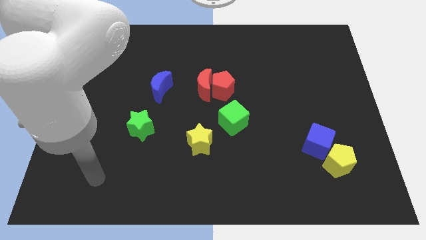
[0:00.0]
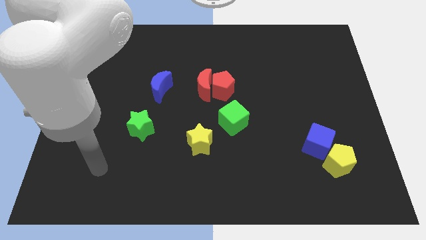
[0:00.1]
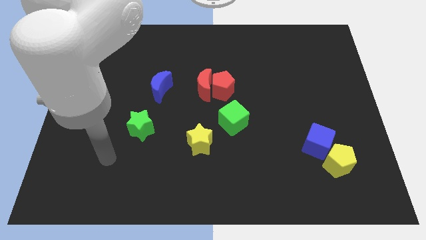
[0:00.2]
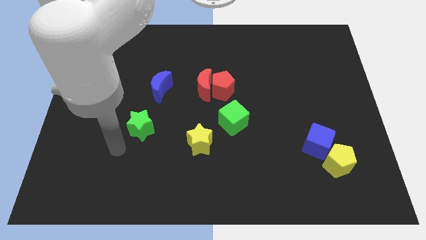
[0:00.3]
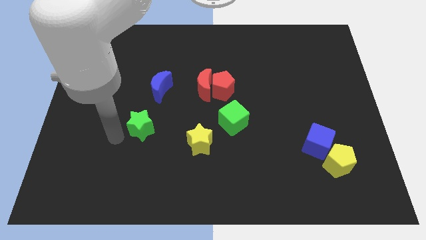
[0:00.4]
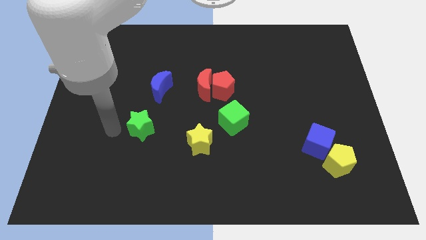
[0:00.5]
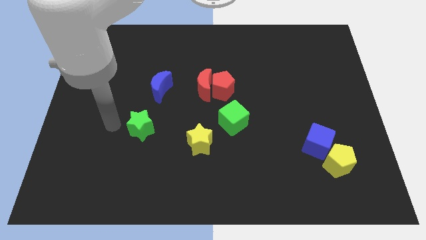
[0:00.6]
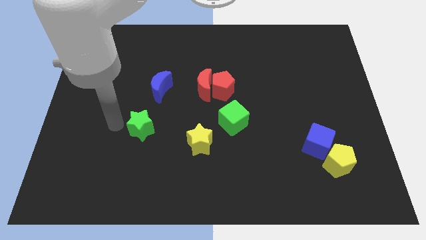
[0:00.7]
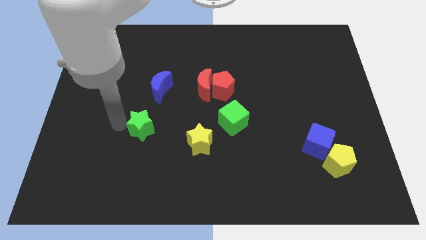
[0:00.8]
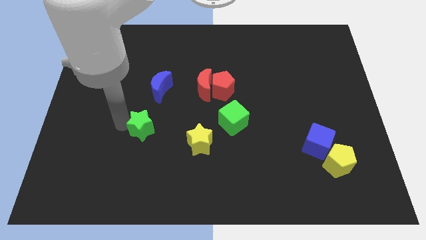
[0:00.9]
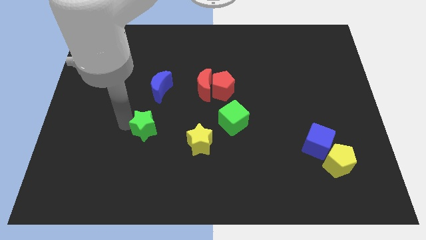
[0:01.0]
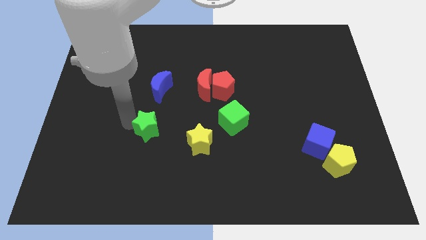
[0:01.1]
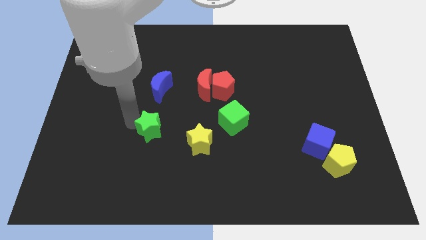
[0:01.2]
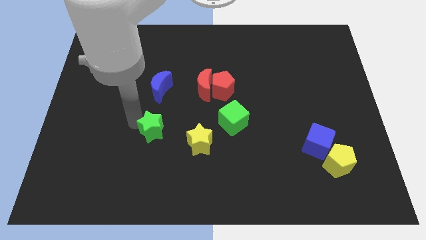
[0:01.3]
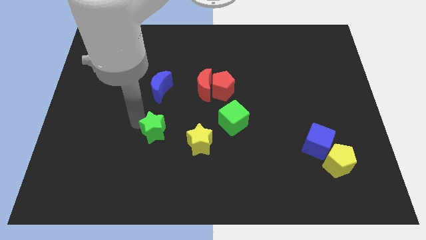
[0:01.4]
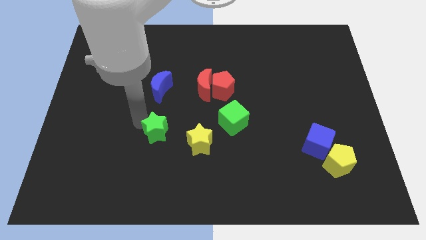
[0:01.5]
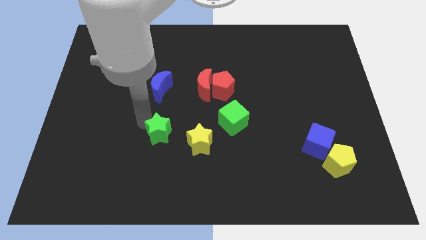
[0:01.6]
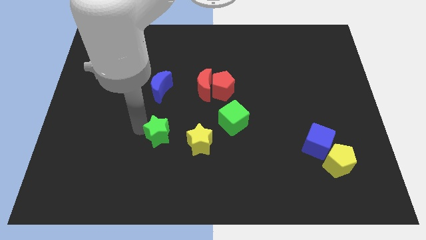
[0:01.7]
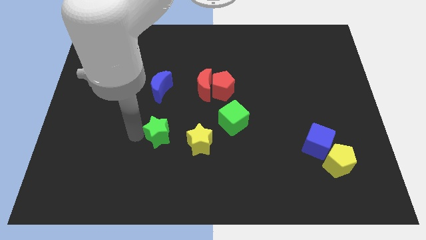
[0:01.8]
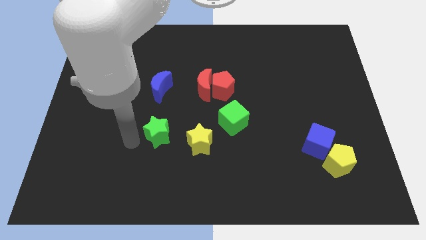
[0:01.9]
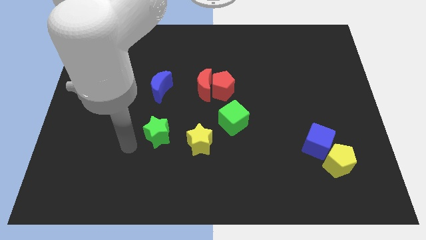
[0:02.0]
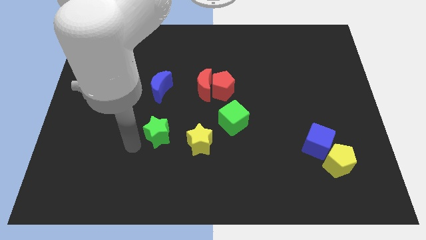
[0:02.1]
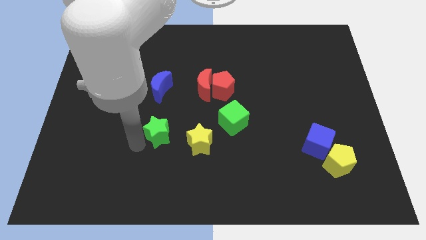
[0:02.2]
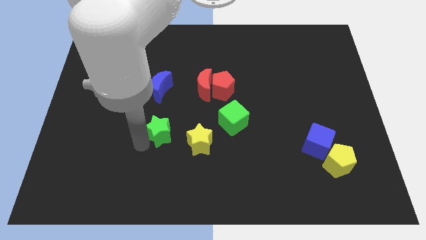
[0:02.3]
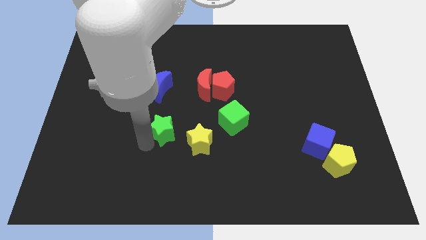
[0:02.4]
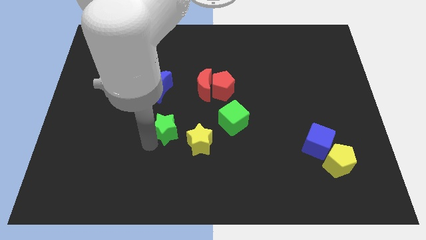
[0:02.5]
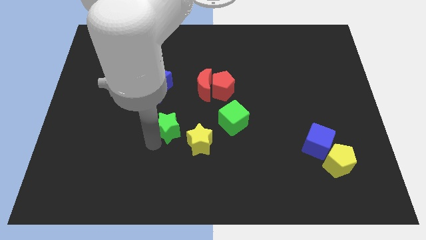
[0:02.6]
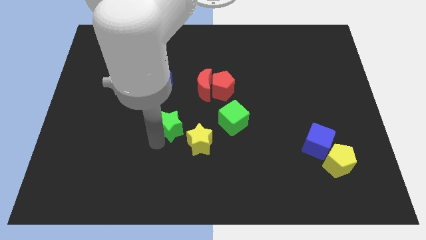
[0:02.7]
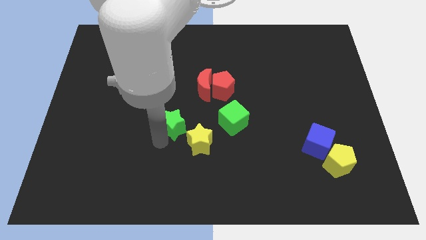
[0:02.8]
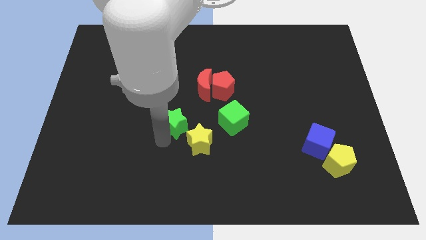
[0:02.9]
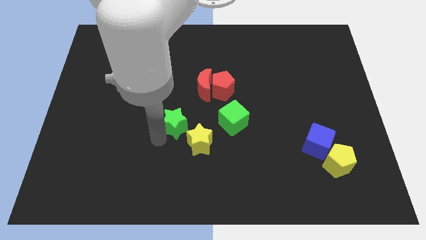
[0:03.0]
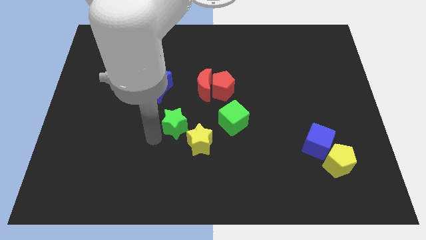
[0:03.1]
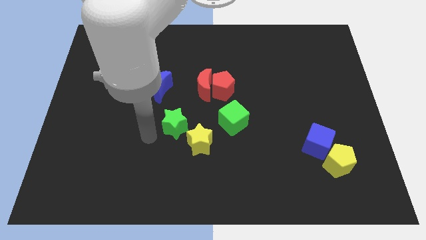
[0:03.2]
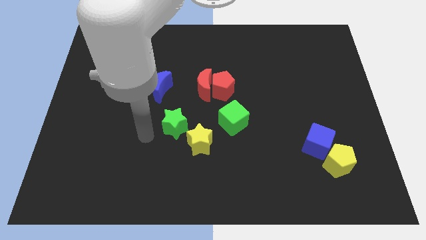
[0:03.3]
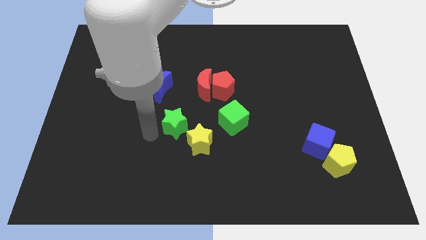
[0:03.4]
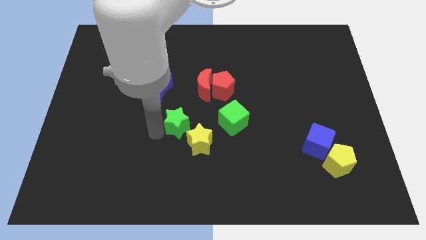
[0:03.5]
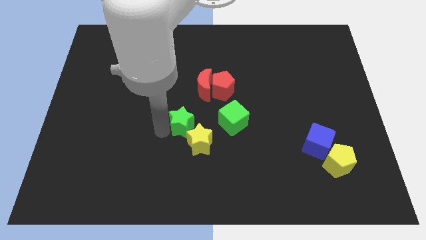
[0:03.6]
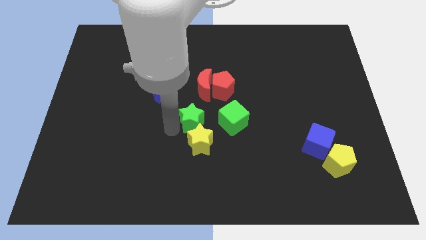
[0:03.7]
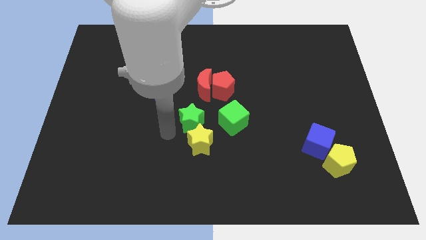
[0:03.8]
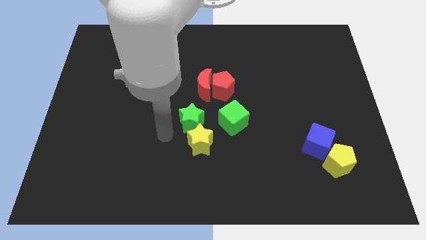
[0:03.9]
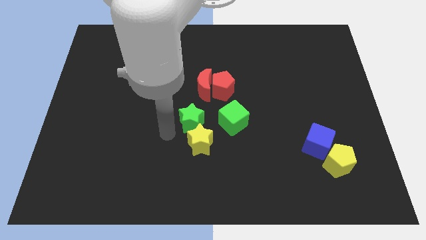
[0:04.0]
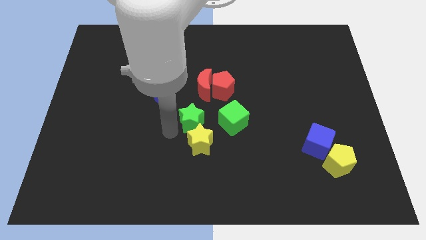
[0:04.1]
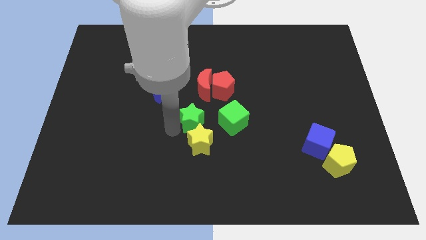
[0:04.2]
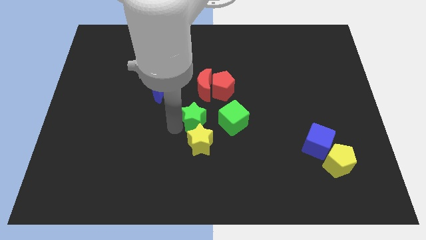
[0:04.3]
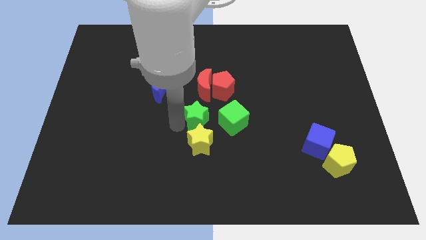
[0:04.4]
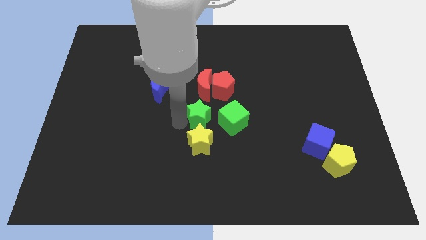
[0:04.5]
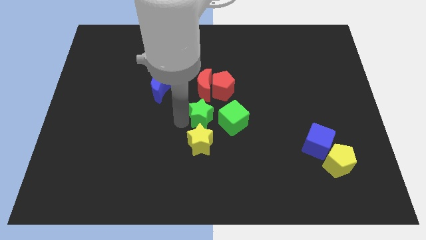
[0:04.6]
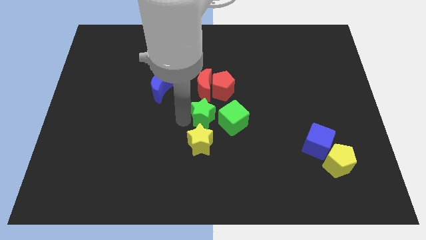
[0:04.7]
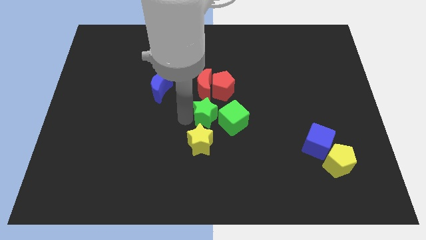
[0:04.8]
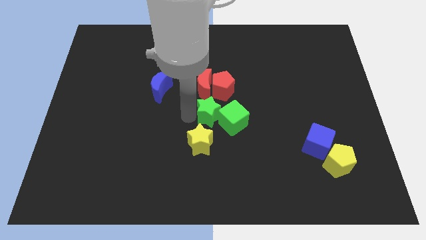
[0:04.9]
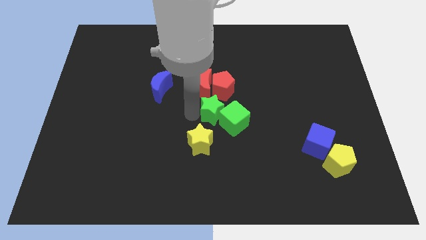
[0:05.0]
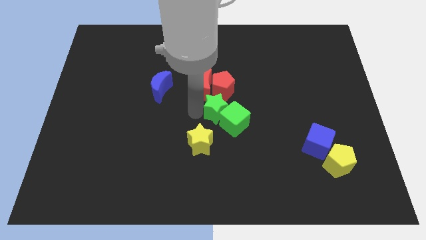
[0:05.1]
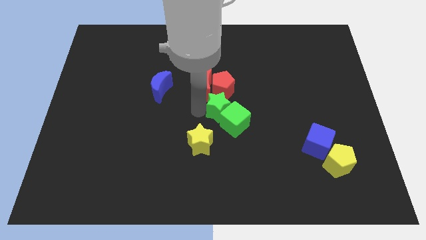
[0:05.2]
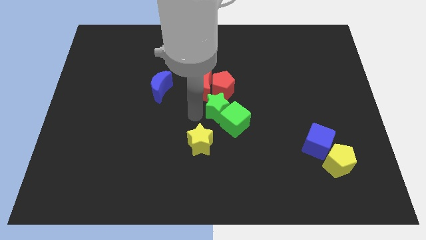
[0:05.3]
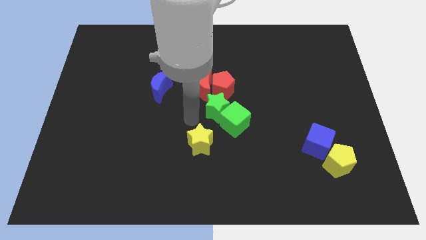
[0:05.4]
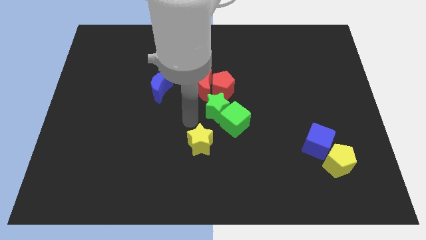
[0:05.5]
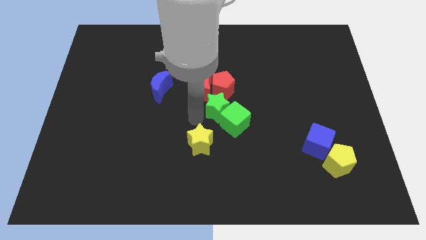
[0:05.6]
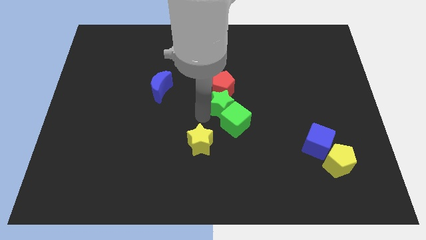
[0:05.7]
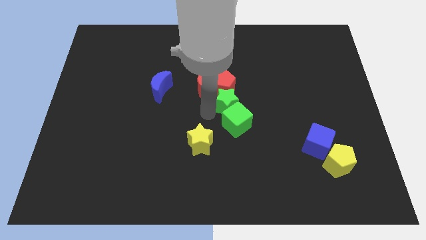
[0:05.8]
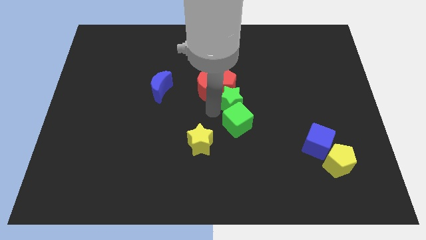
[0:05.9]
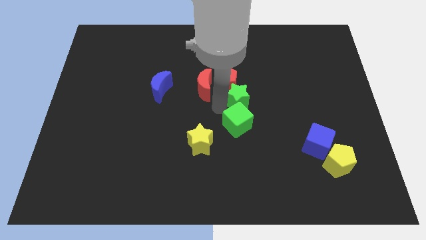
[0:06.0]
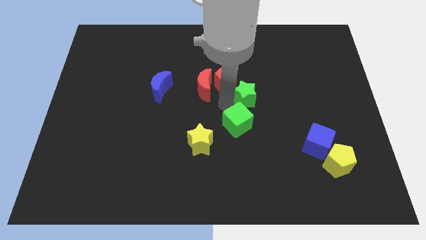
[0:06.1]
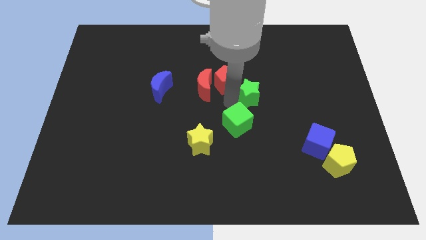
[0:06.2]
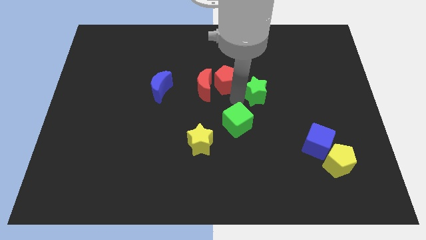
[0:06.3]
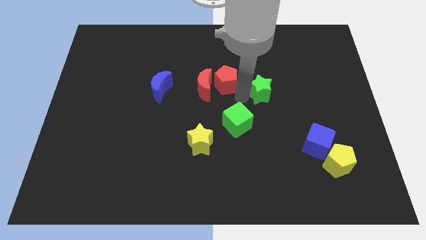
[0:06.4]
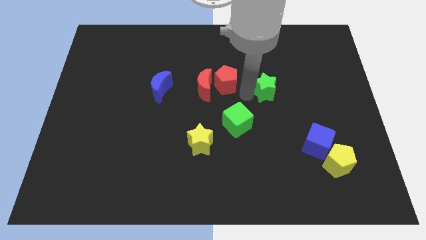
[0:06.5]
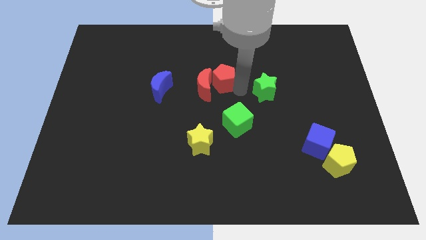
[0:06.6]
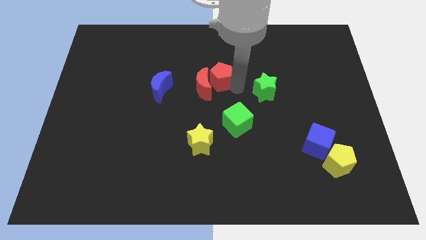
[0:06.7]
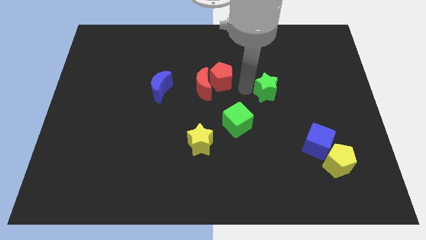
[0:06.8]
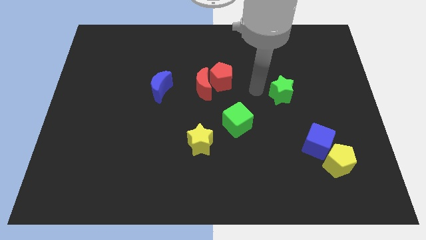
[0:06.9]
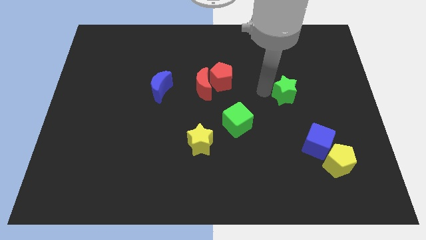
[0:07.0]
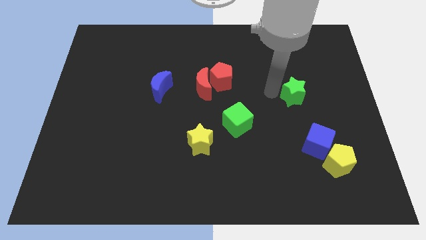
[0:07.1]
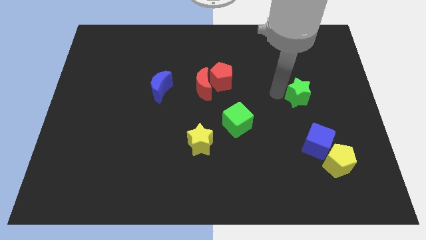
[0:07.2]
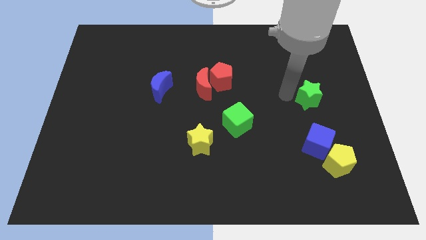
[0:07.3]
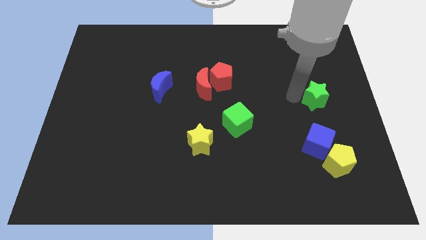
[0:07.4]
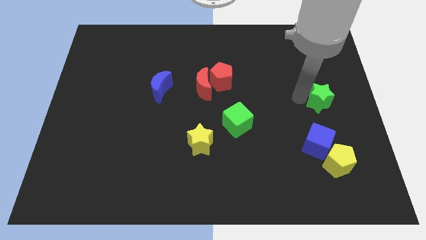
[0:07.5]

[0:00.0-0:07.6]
slide the green star to the right side
